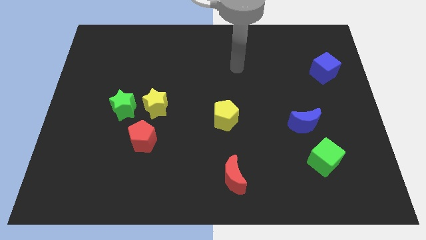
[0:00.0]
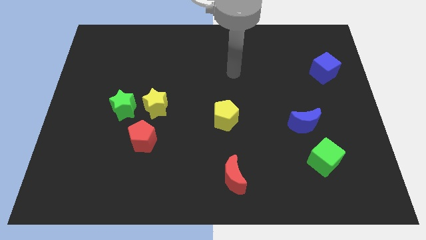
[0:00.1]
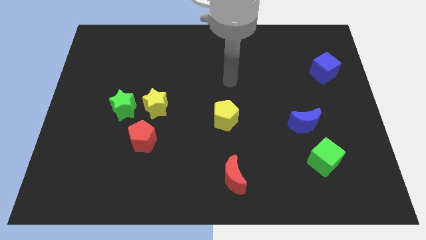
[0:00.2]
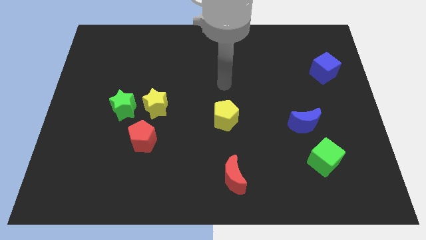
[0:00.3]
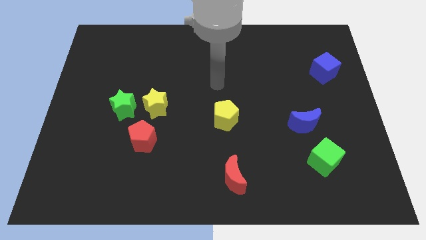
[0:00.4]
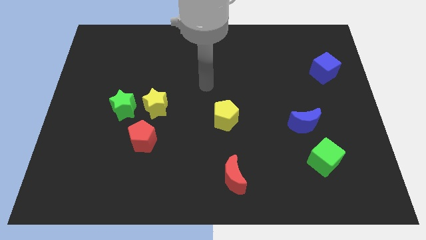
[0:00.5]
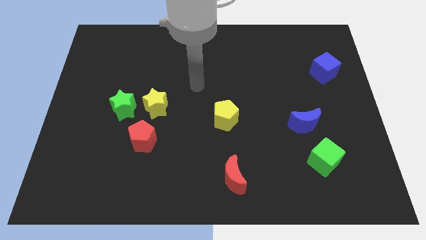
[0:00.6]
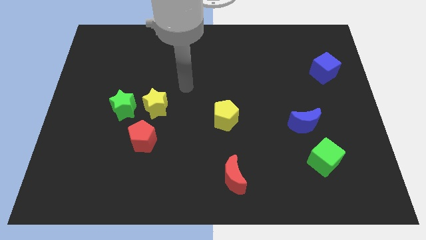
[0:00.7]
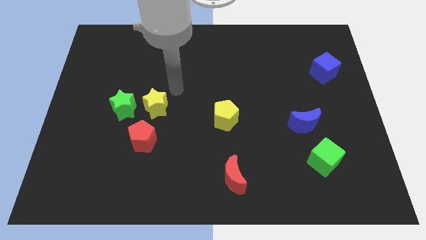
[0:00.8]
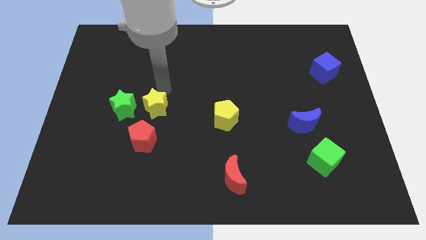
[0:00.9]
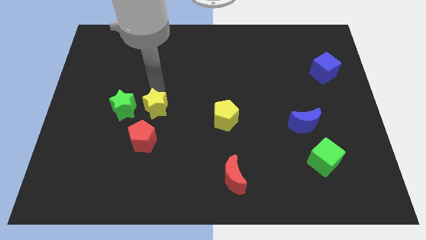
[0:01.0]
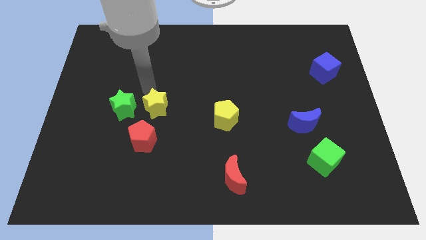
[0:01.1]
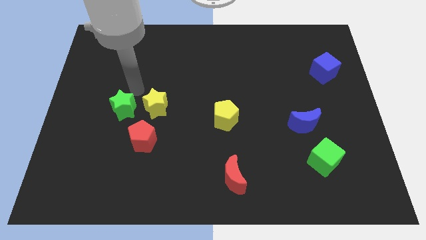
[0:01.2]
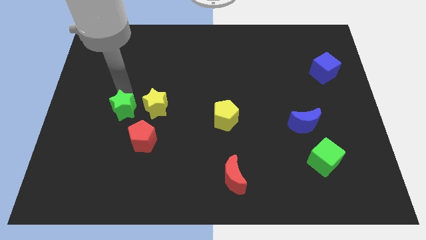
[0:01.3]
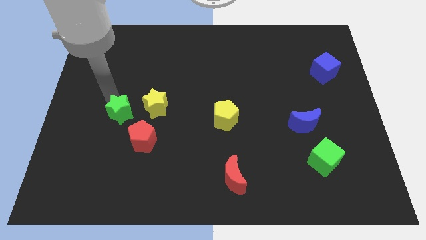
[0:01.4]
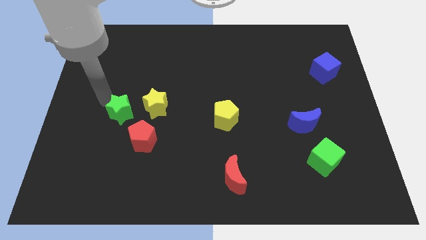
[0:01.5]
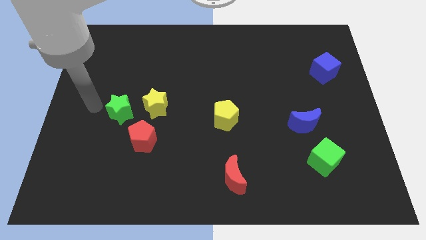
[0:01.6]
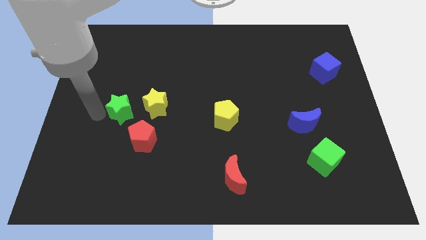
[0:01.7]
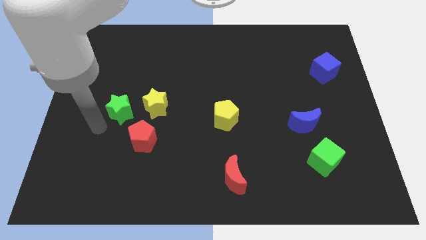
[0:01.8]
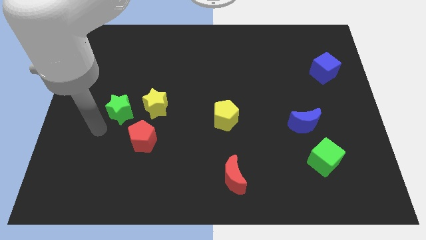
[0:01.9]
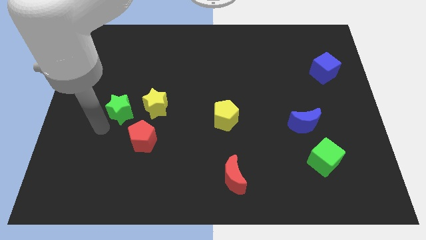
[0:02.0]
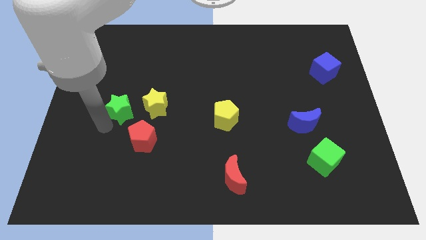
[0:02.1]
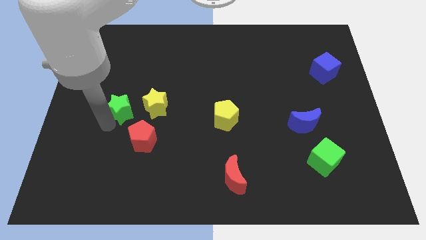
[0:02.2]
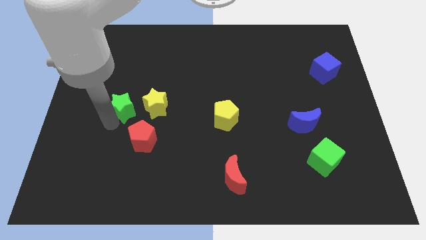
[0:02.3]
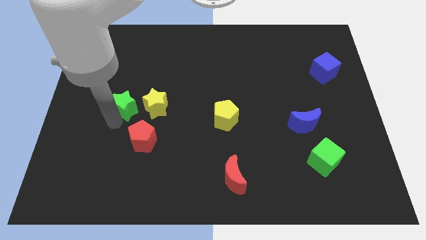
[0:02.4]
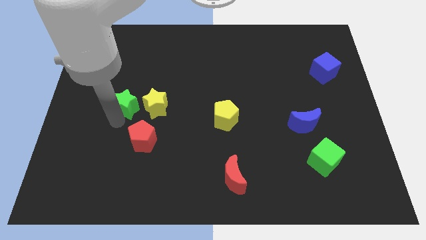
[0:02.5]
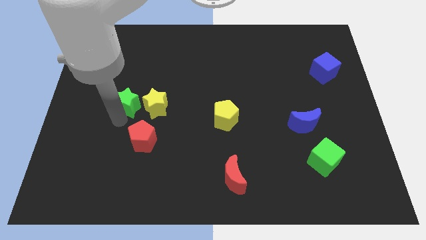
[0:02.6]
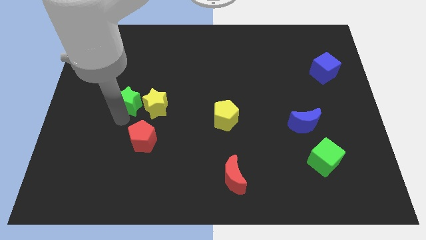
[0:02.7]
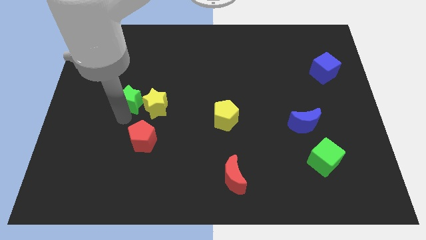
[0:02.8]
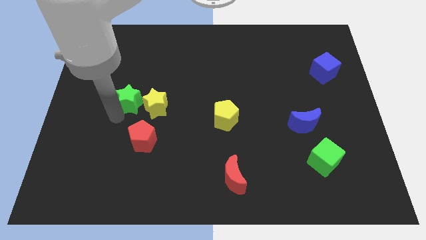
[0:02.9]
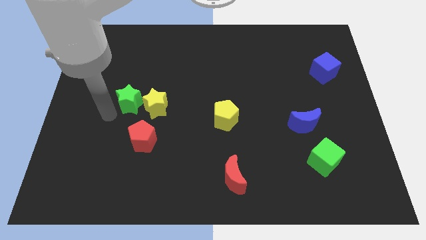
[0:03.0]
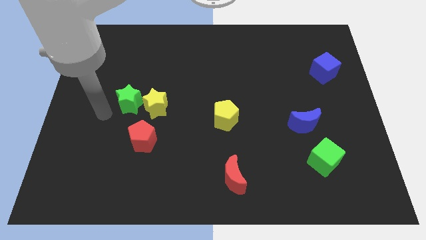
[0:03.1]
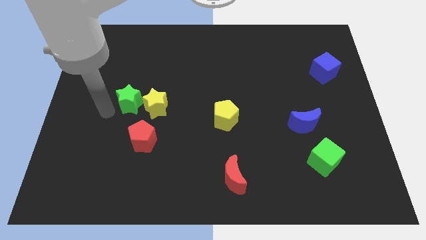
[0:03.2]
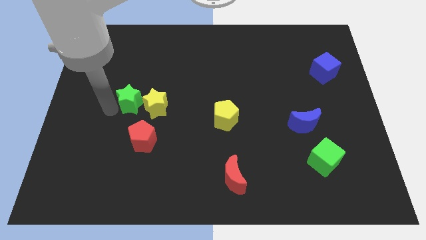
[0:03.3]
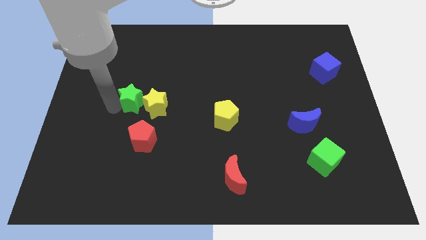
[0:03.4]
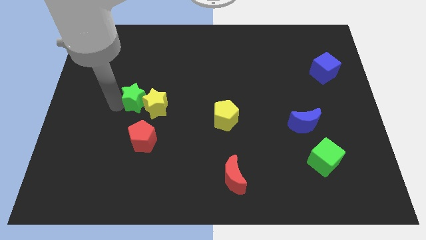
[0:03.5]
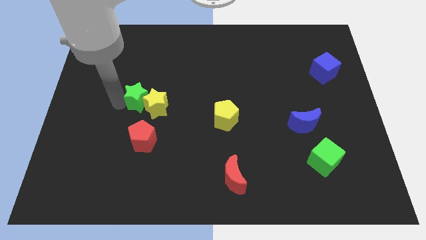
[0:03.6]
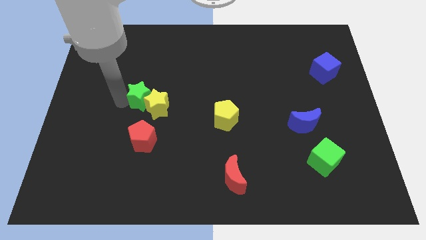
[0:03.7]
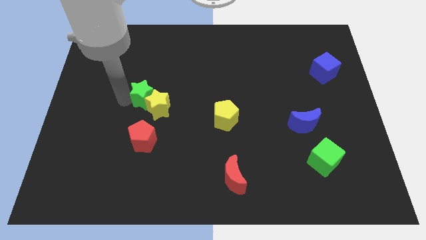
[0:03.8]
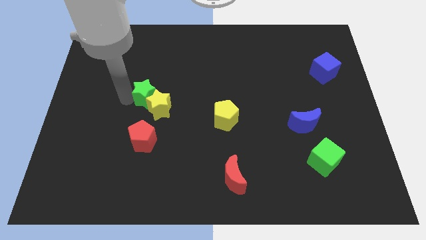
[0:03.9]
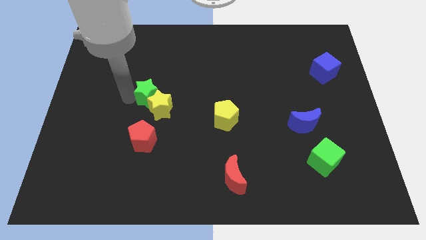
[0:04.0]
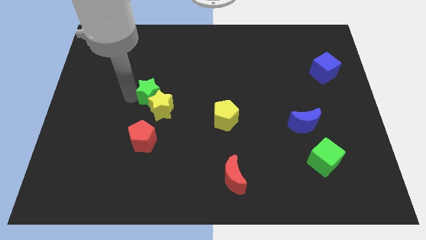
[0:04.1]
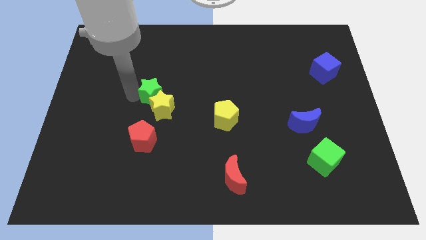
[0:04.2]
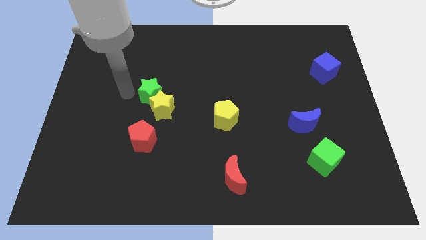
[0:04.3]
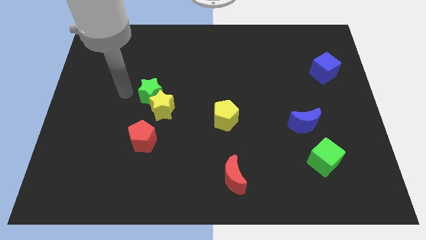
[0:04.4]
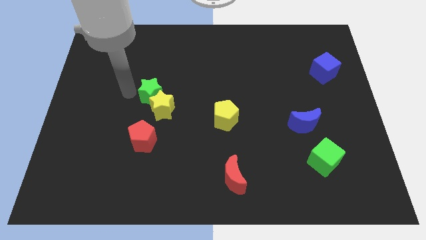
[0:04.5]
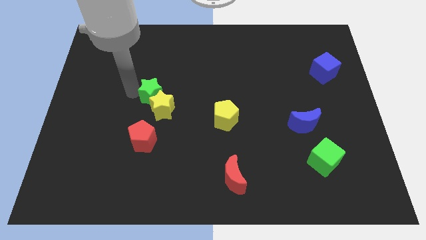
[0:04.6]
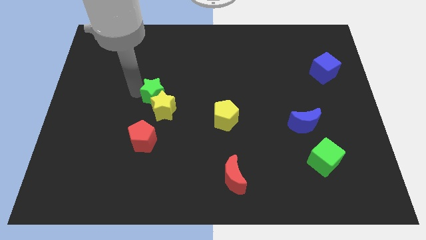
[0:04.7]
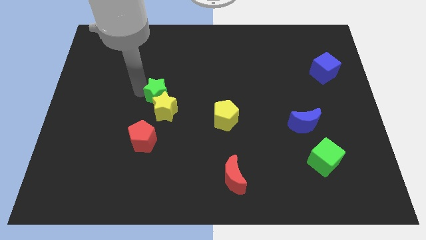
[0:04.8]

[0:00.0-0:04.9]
slide the green star somewhat right

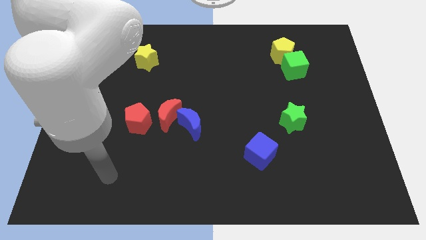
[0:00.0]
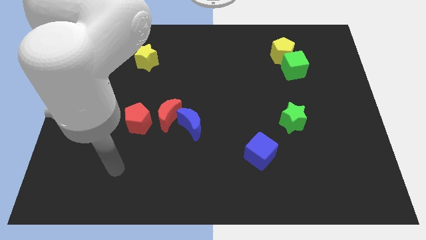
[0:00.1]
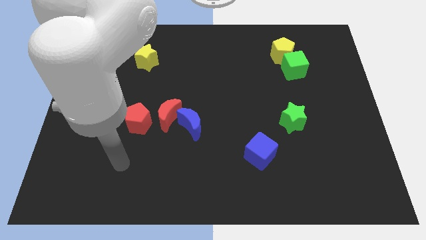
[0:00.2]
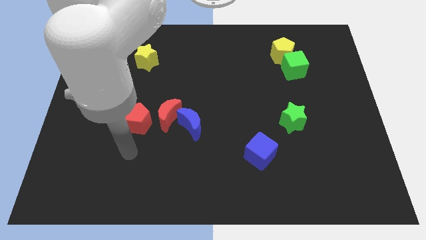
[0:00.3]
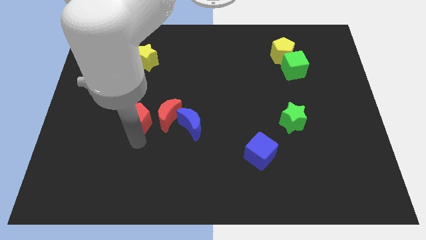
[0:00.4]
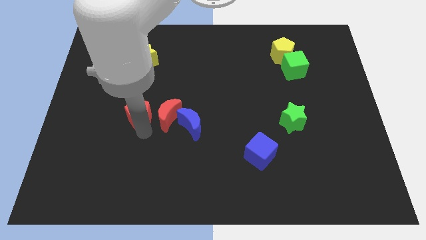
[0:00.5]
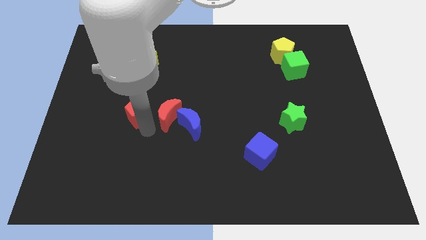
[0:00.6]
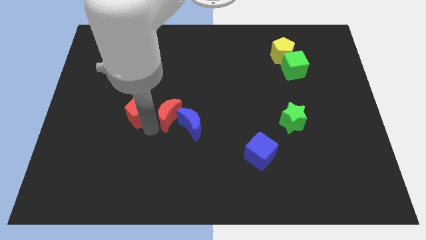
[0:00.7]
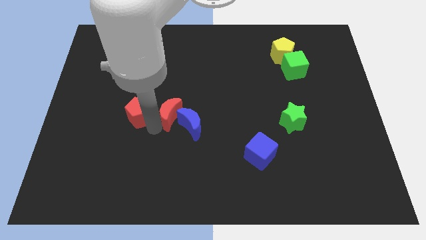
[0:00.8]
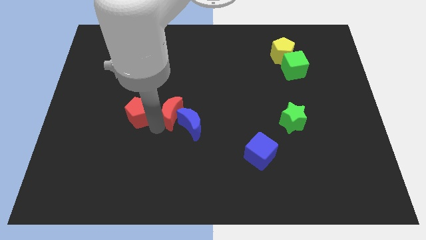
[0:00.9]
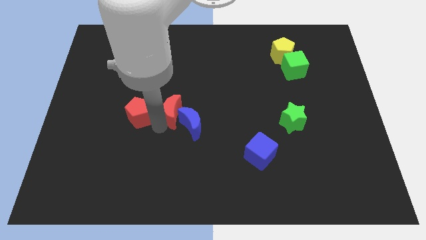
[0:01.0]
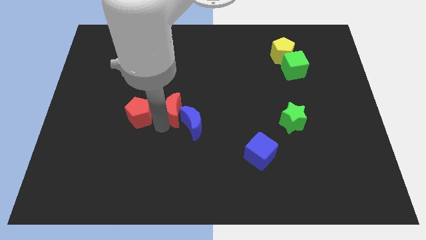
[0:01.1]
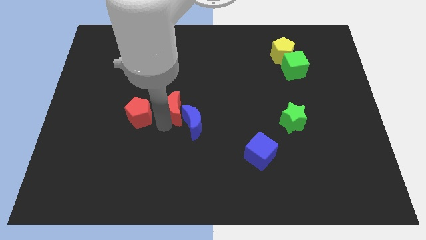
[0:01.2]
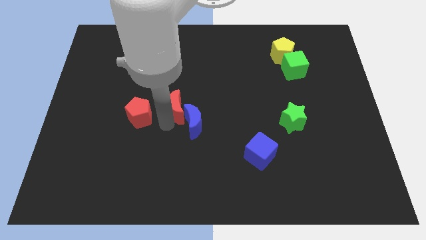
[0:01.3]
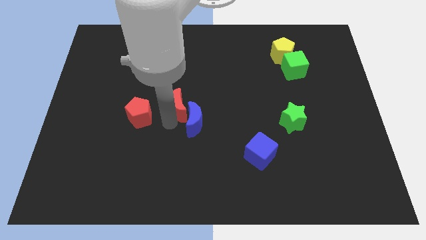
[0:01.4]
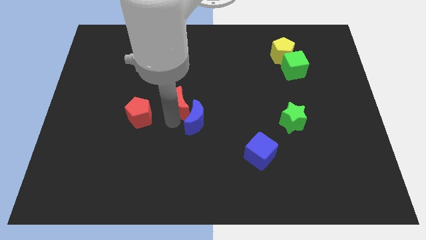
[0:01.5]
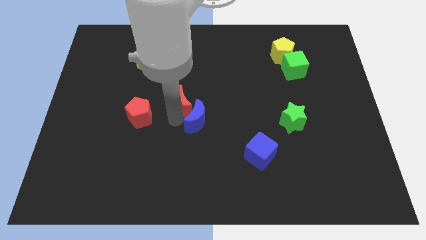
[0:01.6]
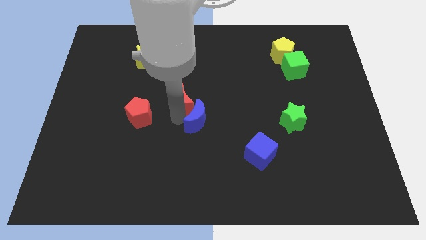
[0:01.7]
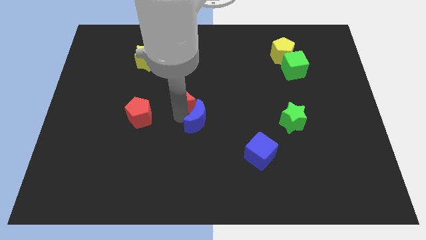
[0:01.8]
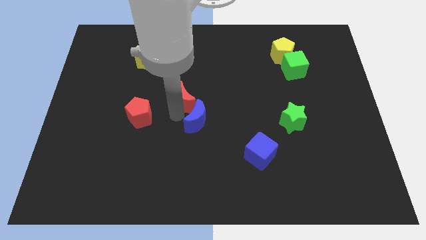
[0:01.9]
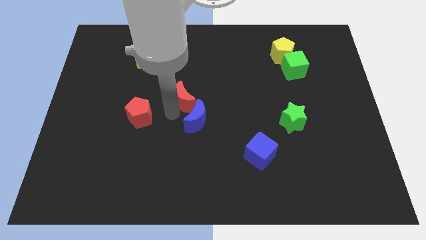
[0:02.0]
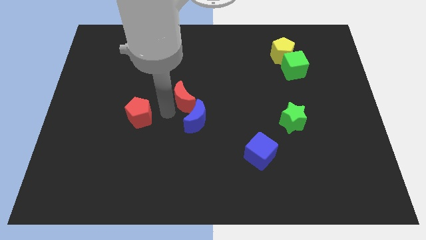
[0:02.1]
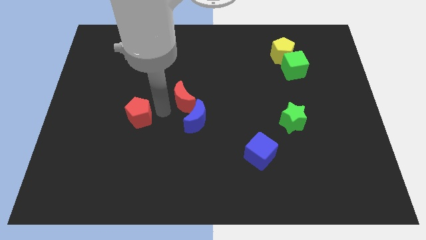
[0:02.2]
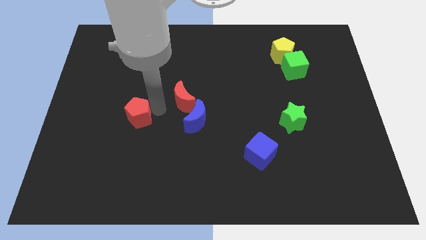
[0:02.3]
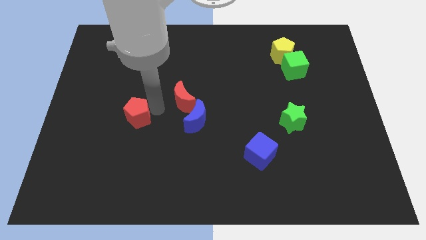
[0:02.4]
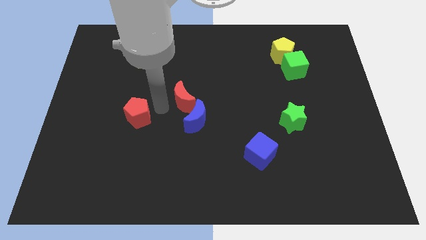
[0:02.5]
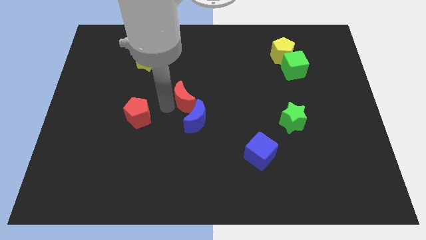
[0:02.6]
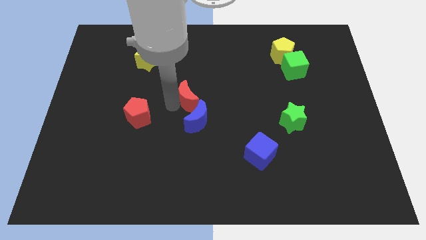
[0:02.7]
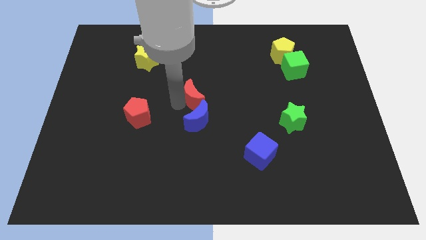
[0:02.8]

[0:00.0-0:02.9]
move the red moon upwards and then to the right a little
